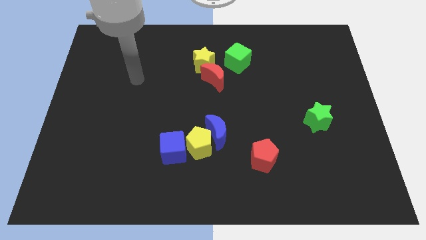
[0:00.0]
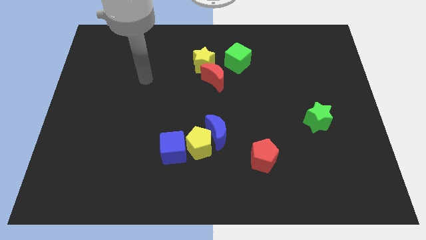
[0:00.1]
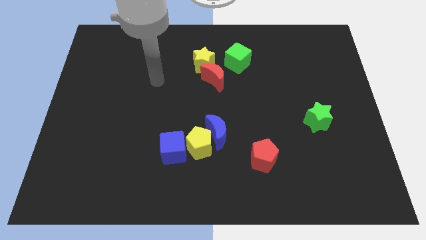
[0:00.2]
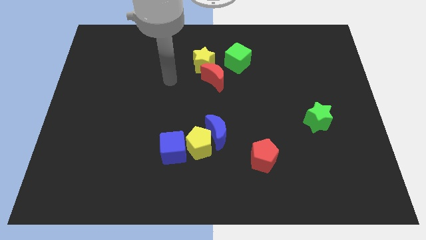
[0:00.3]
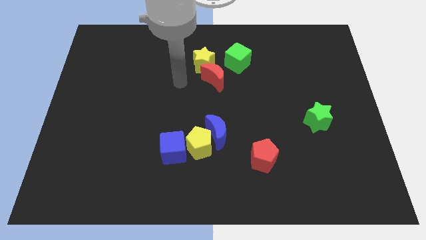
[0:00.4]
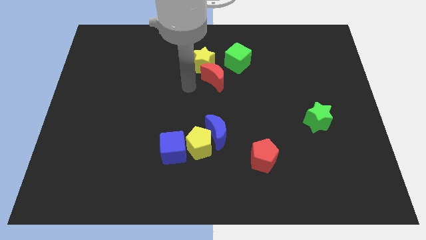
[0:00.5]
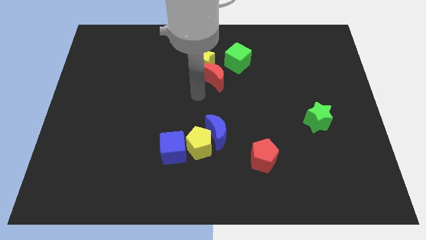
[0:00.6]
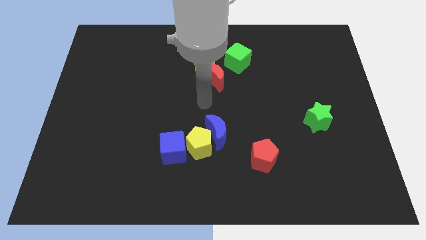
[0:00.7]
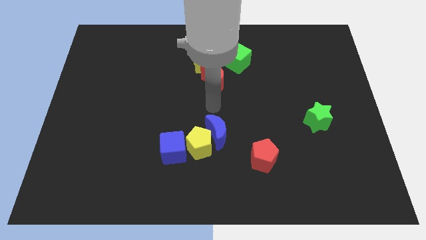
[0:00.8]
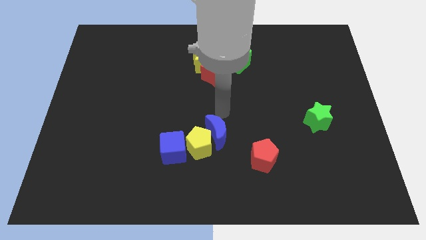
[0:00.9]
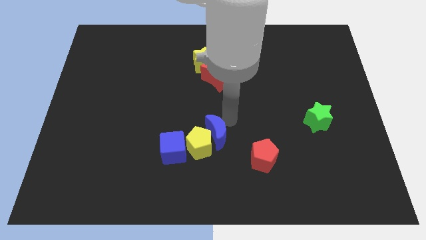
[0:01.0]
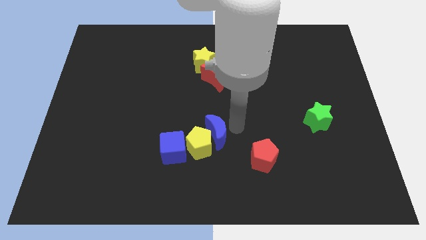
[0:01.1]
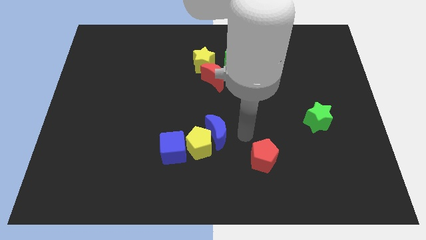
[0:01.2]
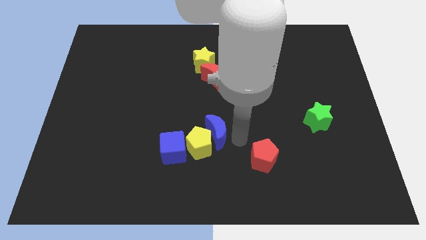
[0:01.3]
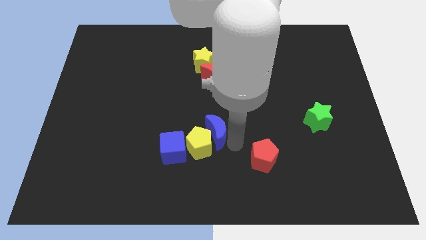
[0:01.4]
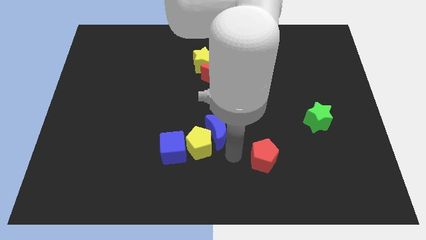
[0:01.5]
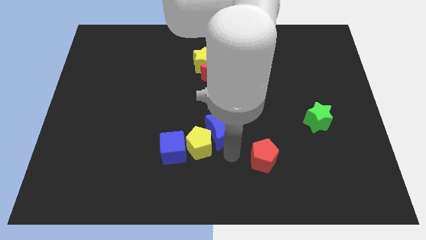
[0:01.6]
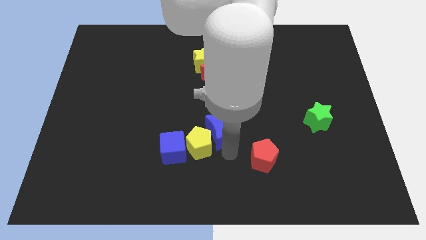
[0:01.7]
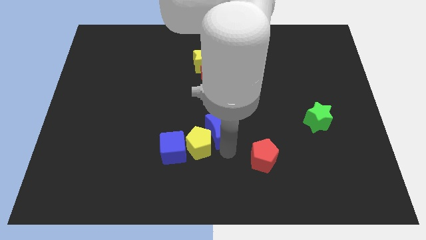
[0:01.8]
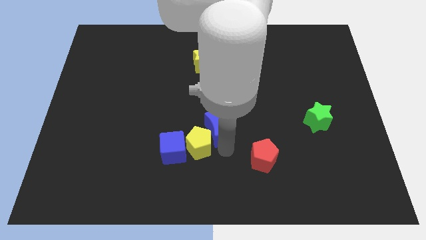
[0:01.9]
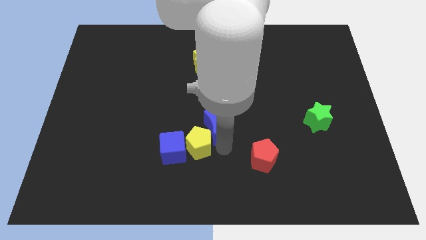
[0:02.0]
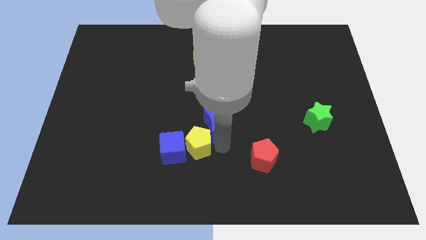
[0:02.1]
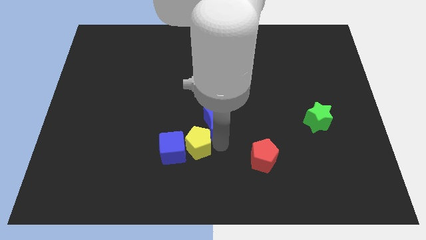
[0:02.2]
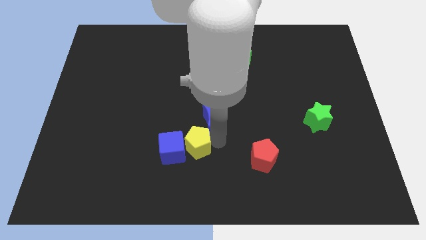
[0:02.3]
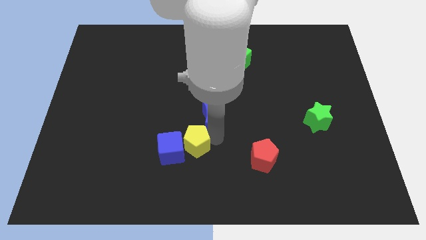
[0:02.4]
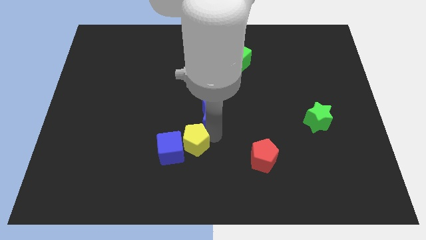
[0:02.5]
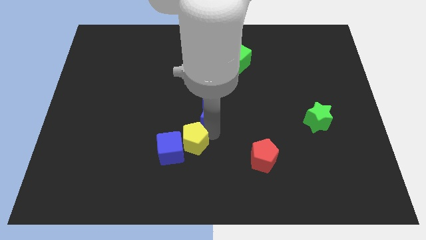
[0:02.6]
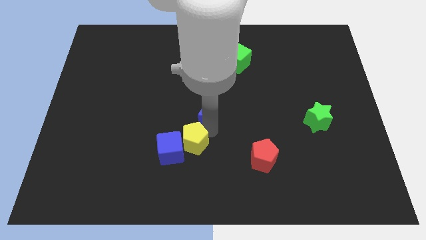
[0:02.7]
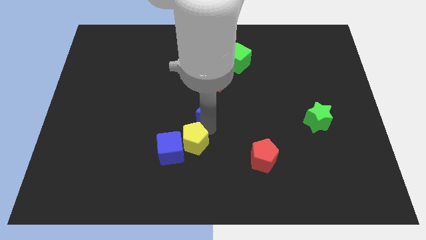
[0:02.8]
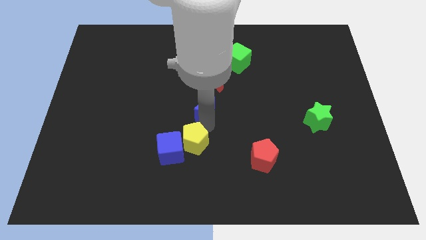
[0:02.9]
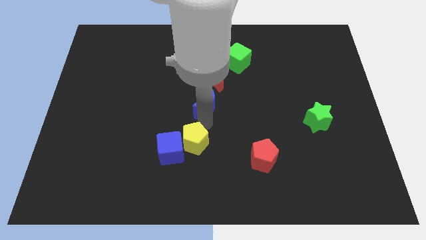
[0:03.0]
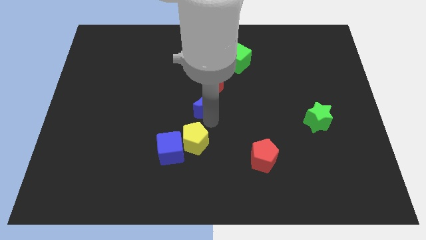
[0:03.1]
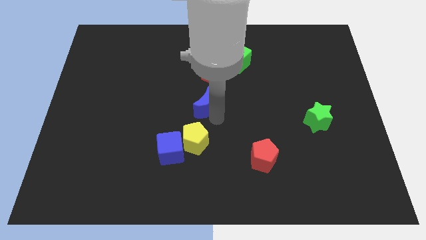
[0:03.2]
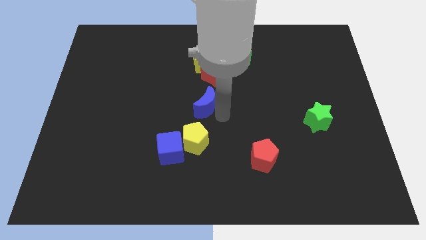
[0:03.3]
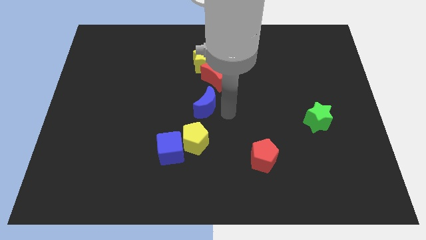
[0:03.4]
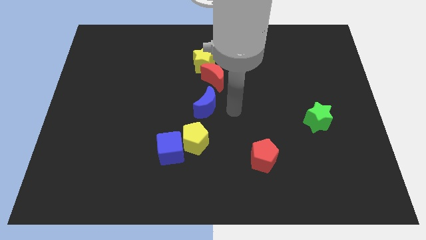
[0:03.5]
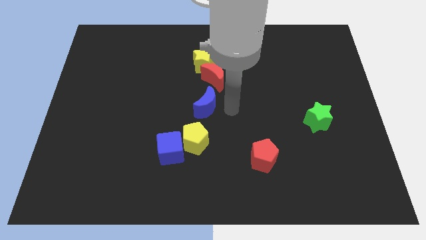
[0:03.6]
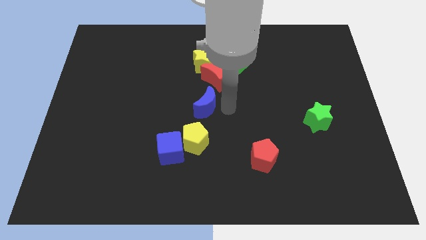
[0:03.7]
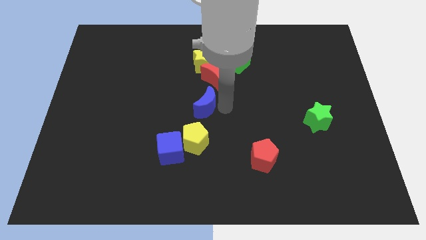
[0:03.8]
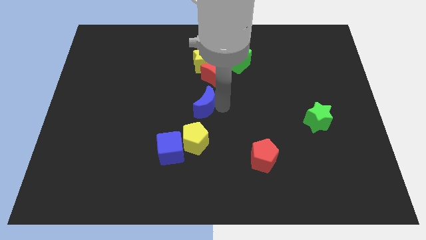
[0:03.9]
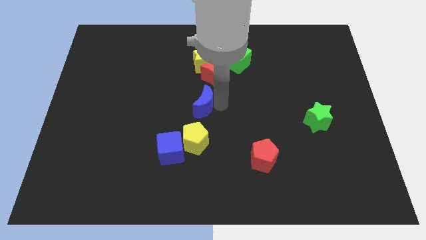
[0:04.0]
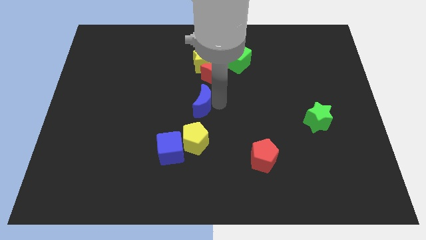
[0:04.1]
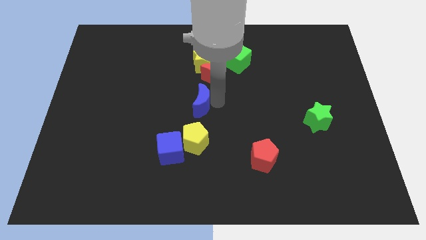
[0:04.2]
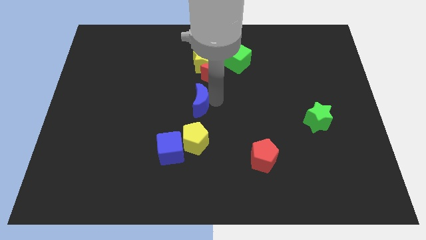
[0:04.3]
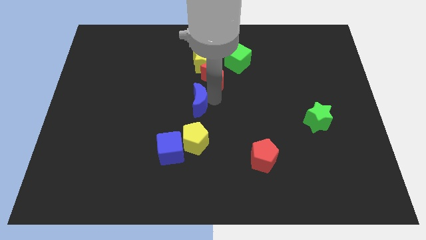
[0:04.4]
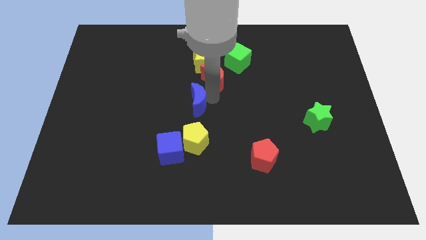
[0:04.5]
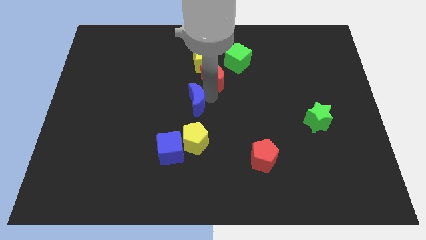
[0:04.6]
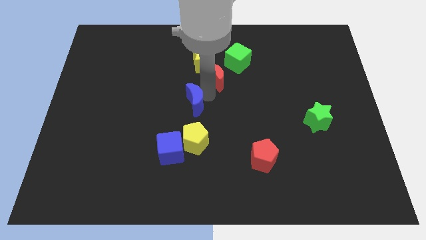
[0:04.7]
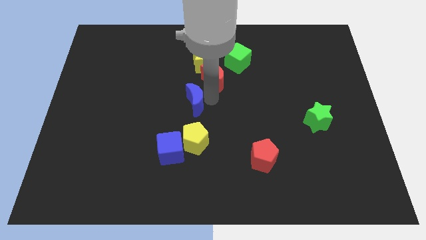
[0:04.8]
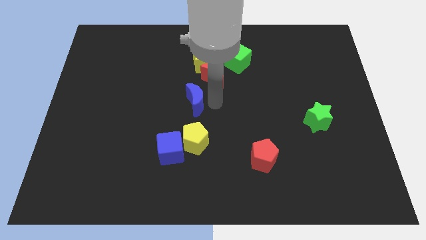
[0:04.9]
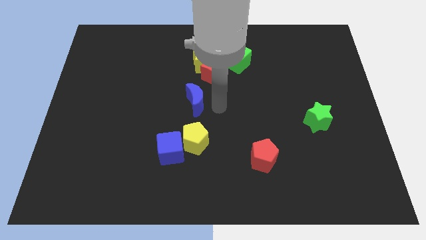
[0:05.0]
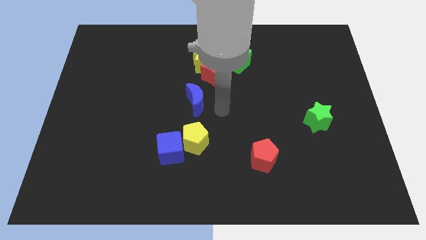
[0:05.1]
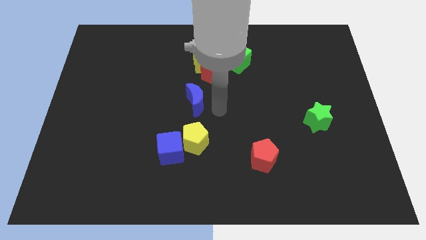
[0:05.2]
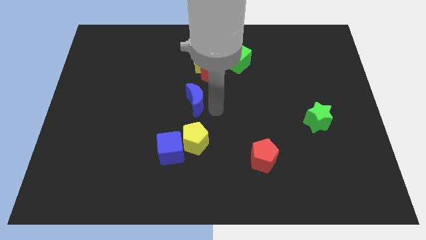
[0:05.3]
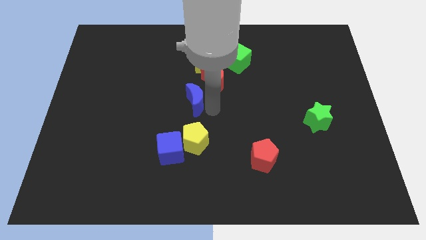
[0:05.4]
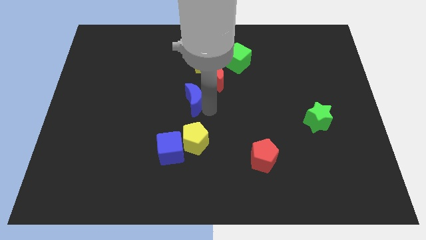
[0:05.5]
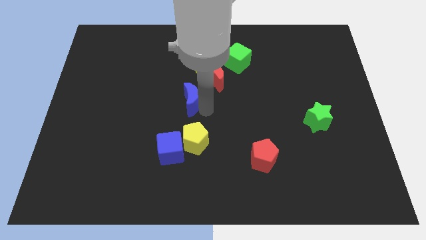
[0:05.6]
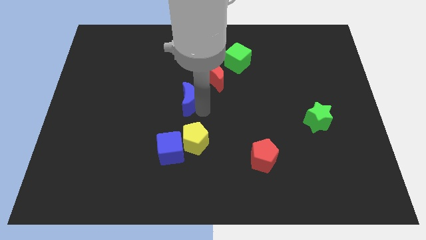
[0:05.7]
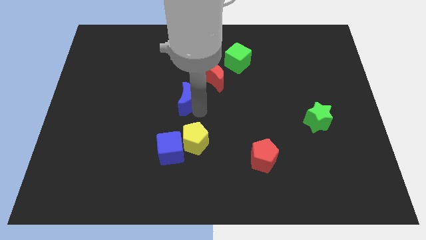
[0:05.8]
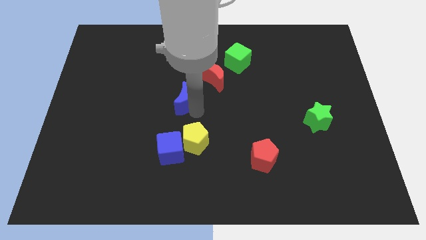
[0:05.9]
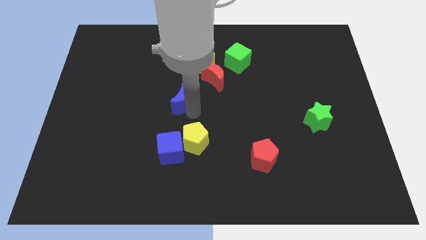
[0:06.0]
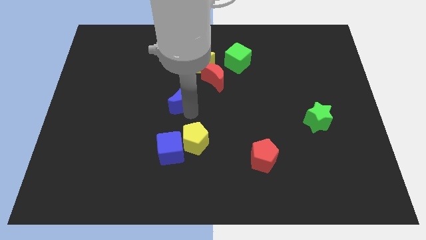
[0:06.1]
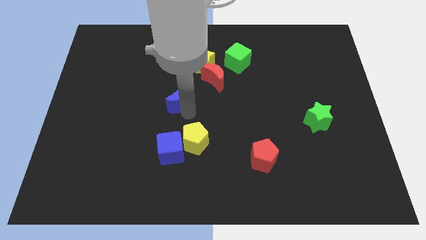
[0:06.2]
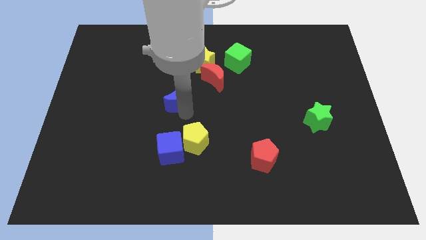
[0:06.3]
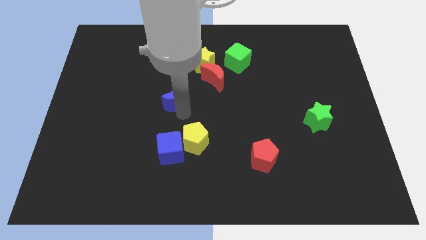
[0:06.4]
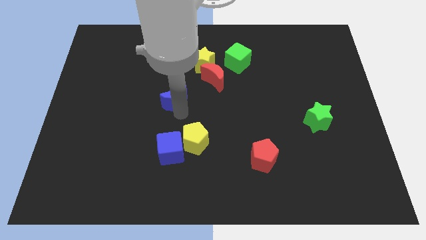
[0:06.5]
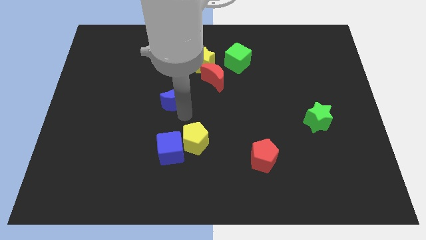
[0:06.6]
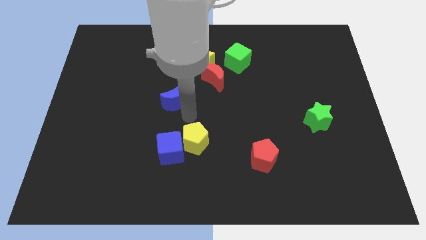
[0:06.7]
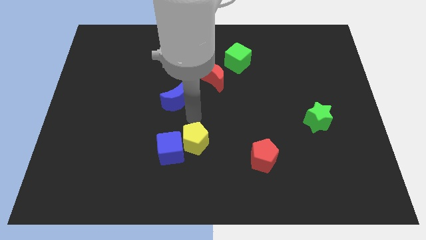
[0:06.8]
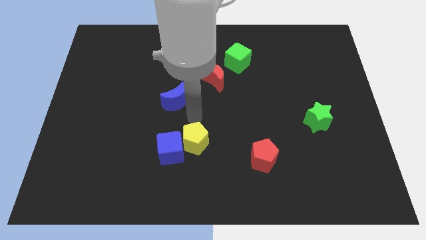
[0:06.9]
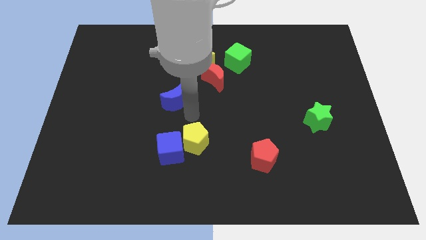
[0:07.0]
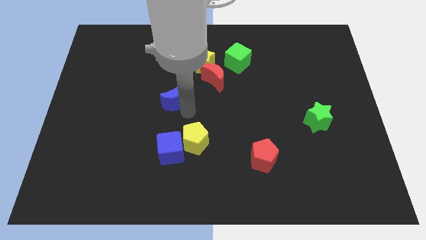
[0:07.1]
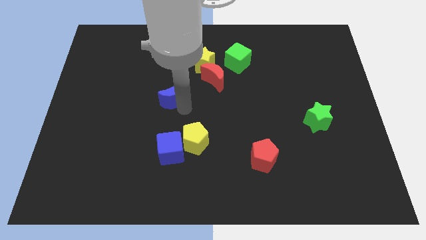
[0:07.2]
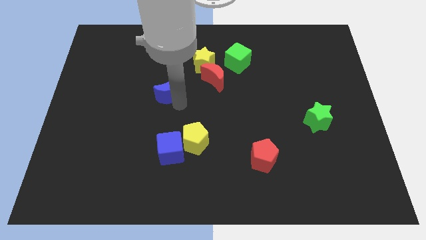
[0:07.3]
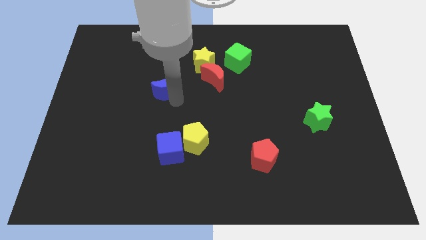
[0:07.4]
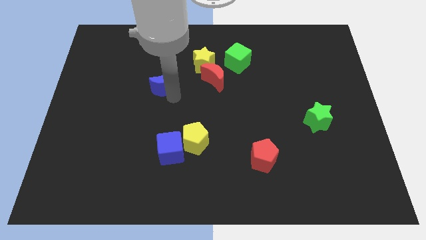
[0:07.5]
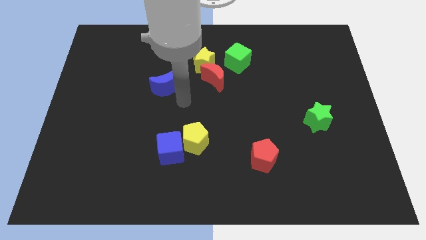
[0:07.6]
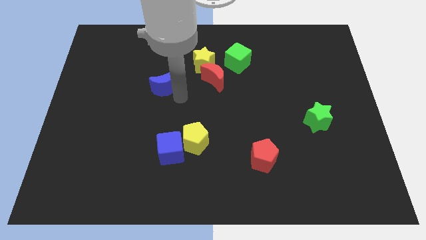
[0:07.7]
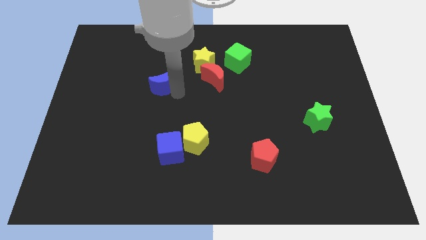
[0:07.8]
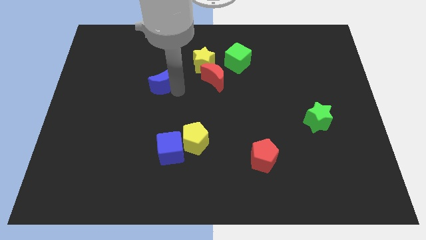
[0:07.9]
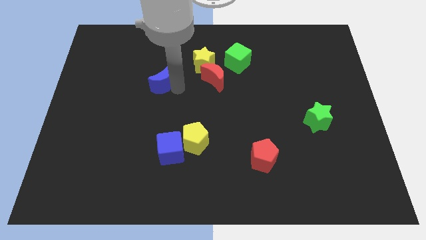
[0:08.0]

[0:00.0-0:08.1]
push the blue moon diagonally up and to the left
